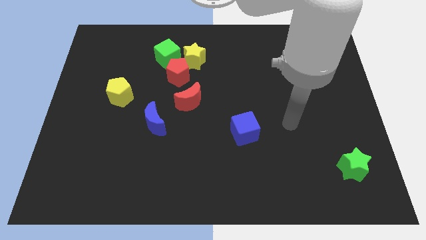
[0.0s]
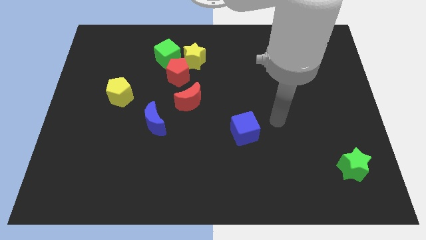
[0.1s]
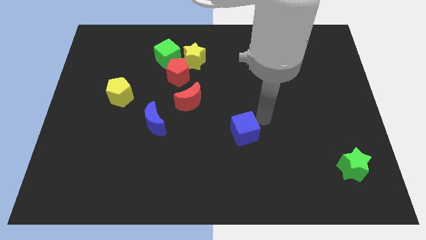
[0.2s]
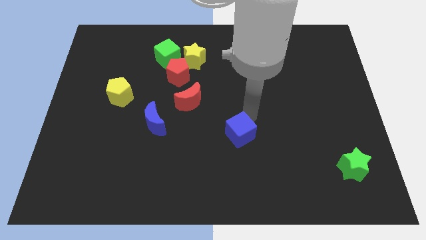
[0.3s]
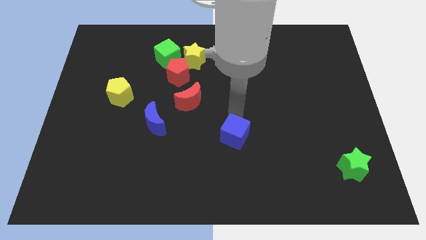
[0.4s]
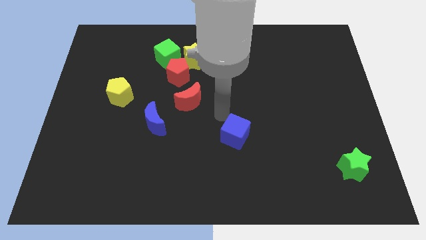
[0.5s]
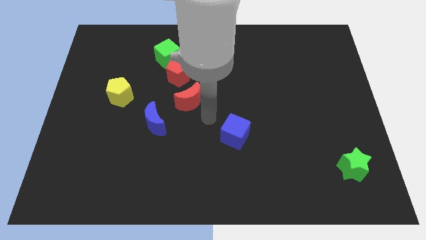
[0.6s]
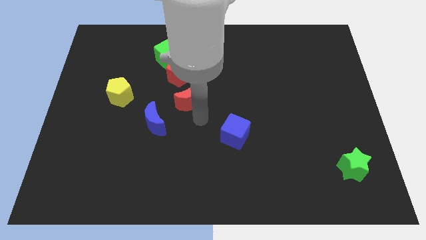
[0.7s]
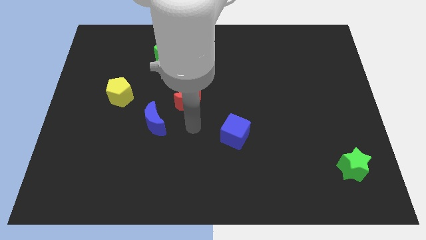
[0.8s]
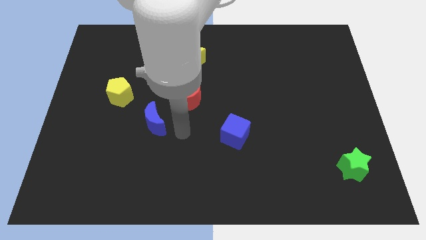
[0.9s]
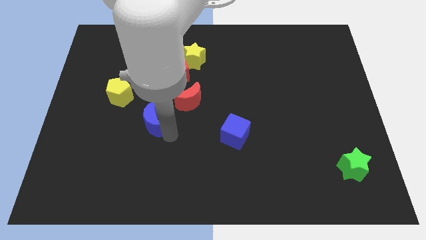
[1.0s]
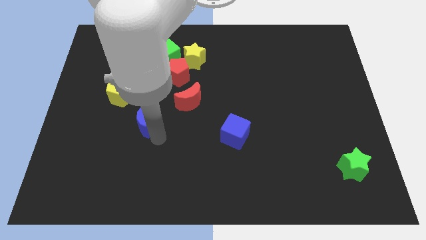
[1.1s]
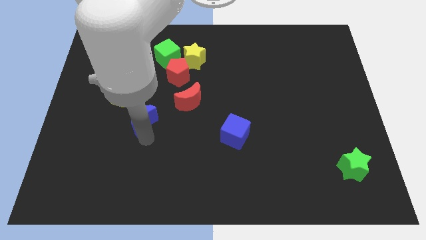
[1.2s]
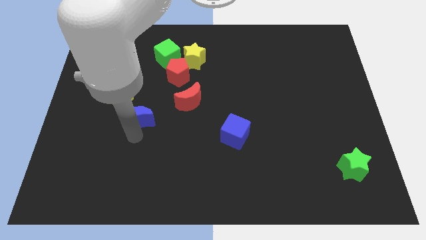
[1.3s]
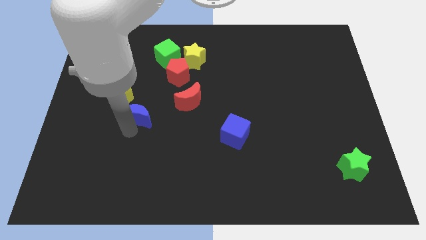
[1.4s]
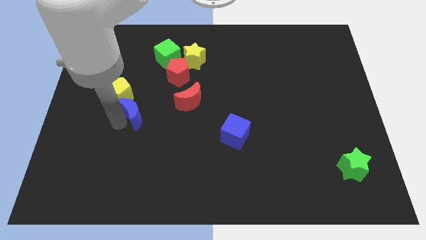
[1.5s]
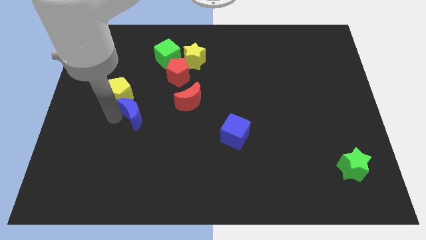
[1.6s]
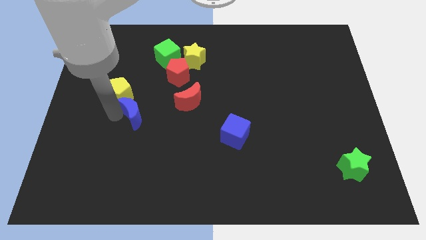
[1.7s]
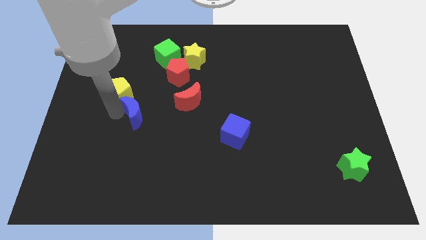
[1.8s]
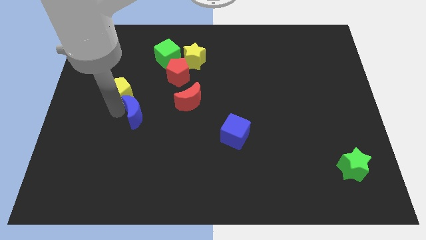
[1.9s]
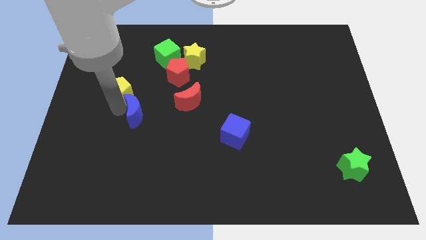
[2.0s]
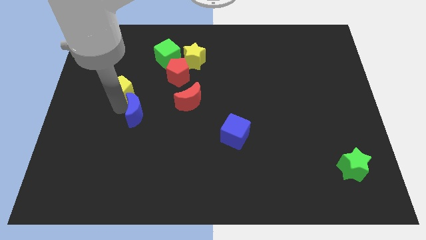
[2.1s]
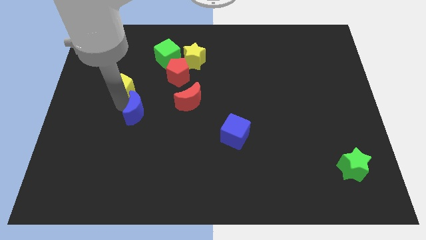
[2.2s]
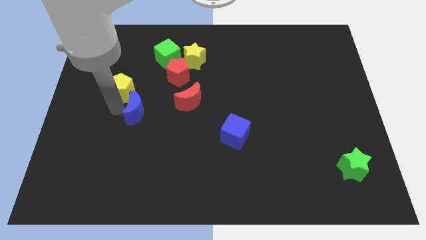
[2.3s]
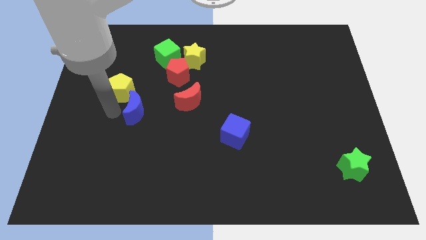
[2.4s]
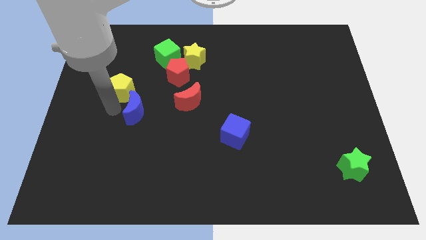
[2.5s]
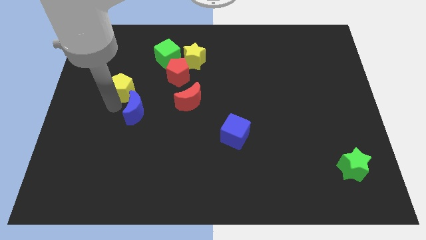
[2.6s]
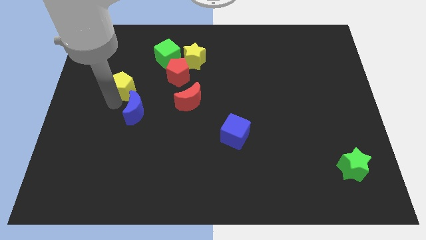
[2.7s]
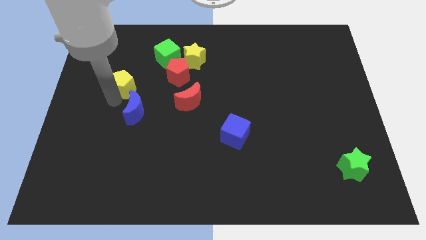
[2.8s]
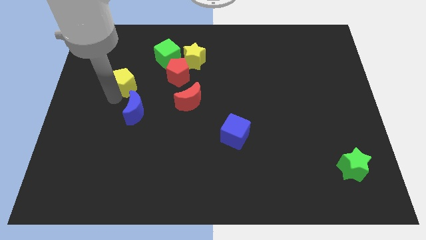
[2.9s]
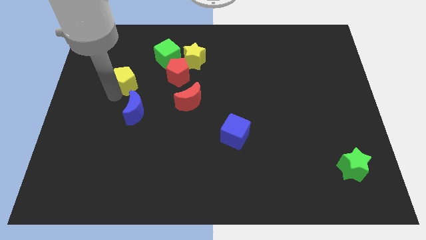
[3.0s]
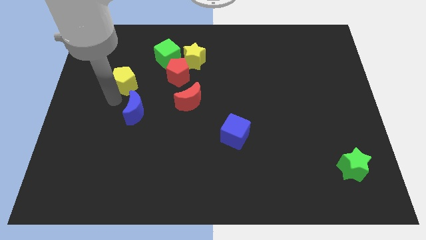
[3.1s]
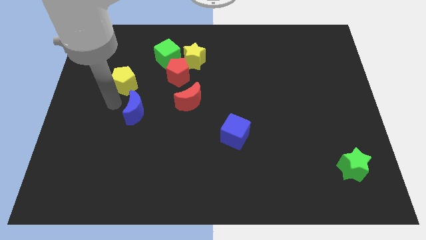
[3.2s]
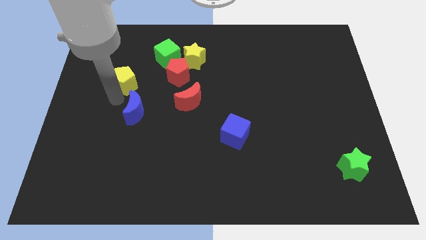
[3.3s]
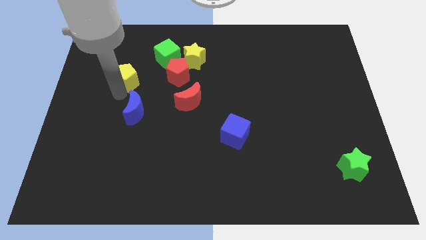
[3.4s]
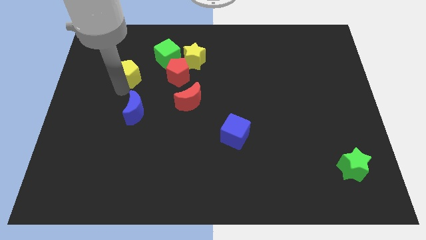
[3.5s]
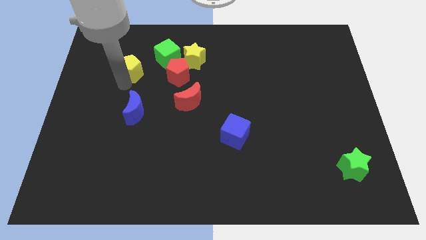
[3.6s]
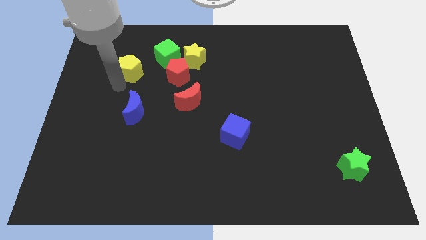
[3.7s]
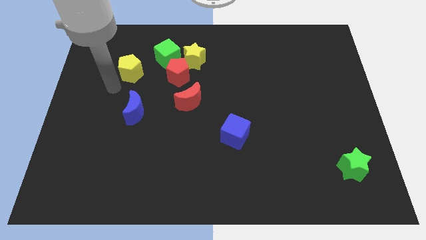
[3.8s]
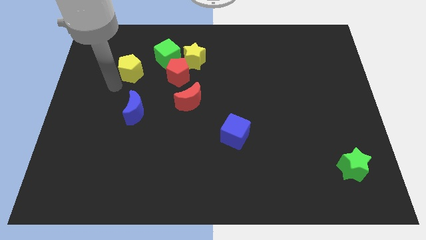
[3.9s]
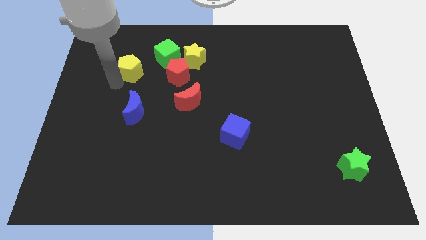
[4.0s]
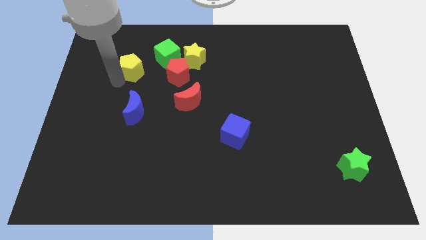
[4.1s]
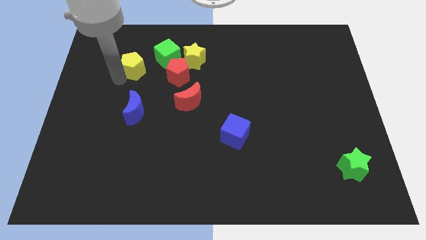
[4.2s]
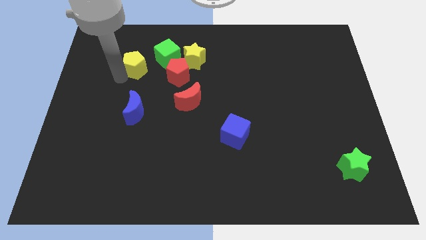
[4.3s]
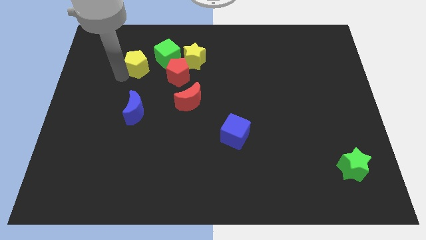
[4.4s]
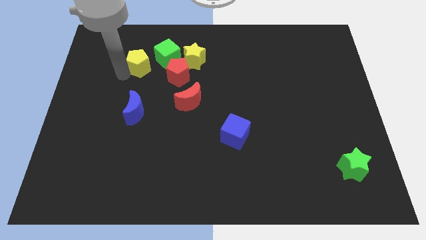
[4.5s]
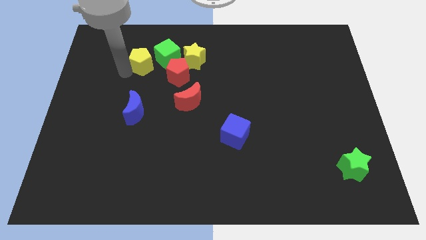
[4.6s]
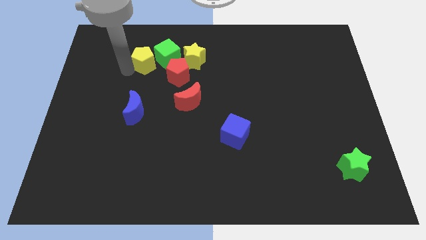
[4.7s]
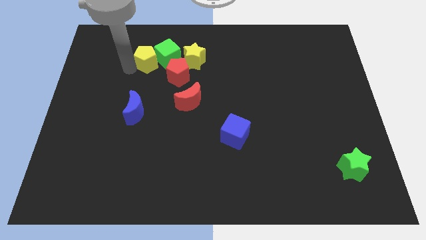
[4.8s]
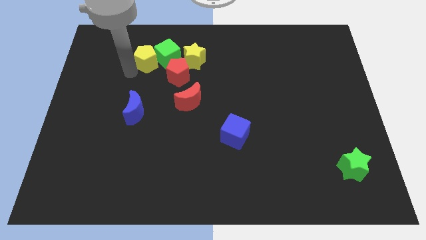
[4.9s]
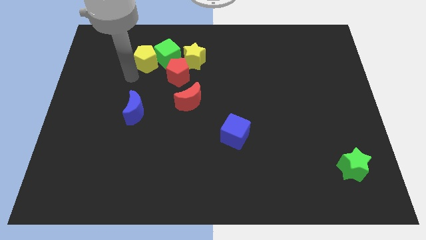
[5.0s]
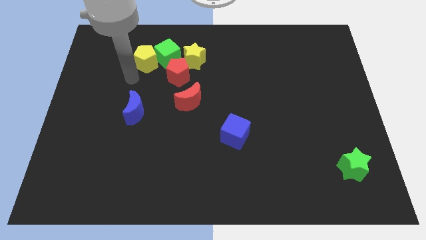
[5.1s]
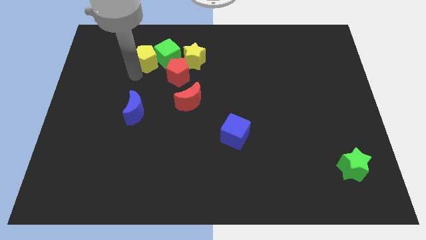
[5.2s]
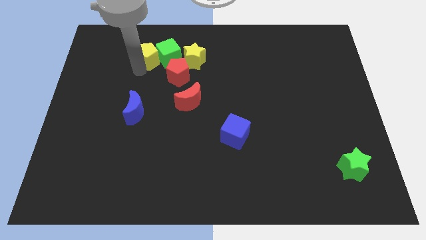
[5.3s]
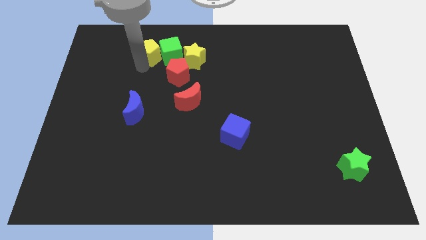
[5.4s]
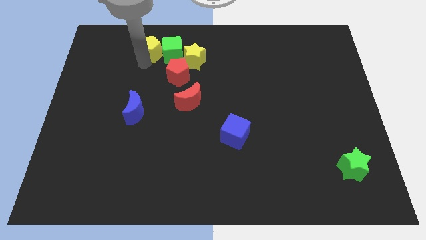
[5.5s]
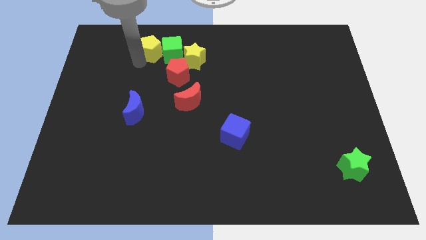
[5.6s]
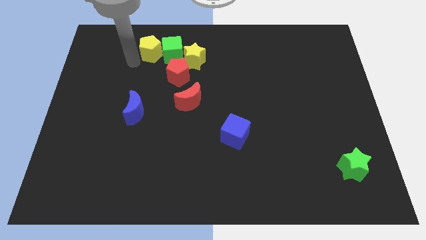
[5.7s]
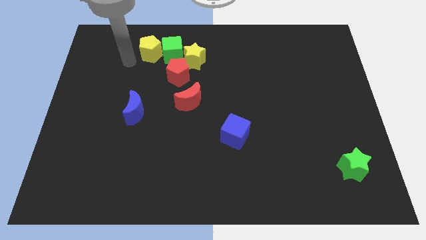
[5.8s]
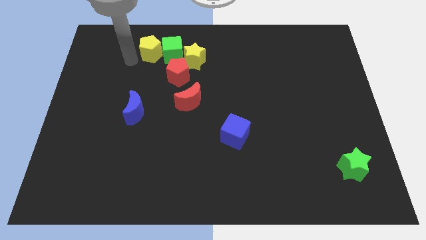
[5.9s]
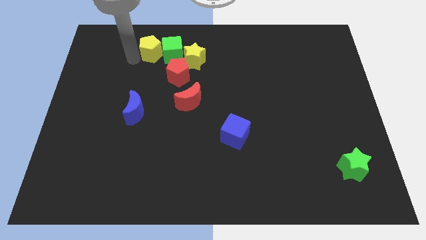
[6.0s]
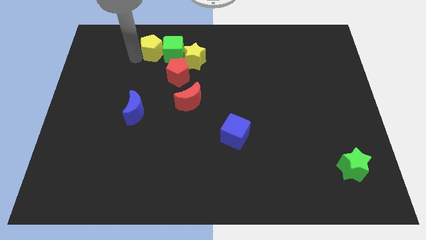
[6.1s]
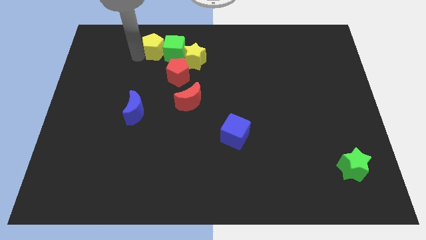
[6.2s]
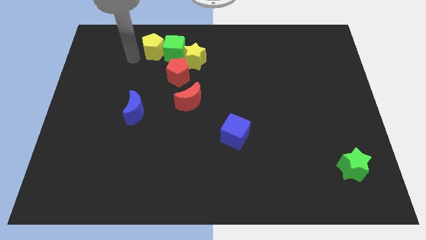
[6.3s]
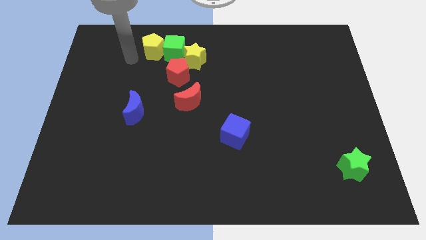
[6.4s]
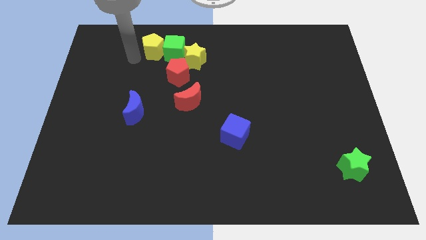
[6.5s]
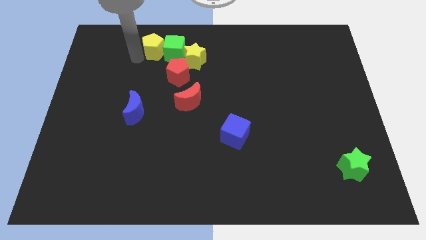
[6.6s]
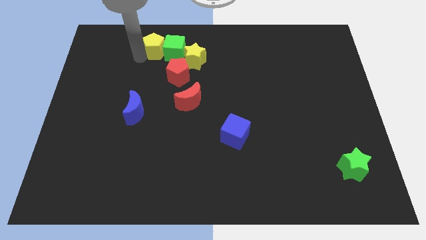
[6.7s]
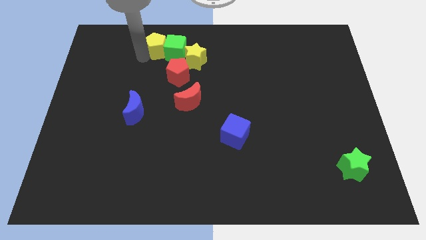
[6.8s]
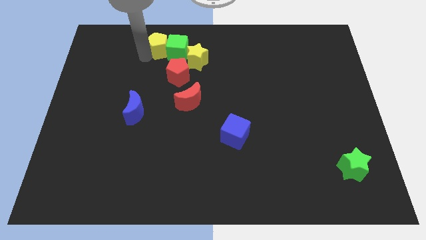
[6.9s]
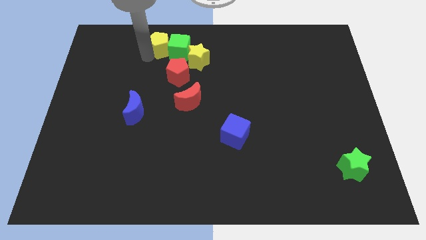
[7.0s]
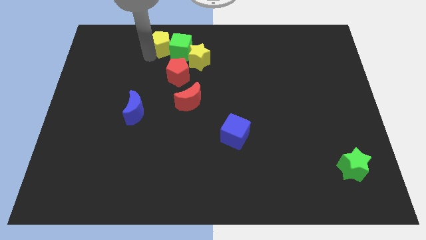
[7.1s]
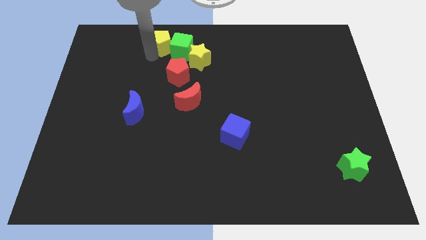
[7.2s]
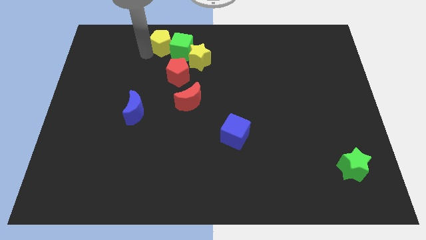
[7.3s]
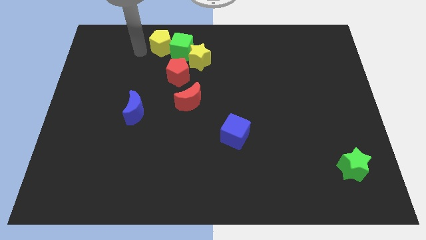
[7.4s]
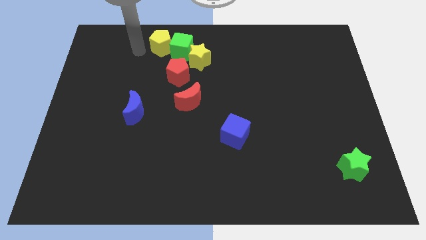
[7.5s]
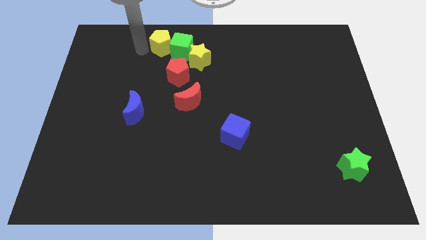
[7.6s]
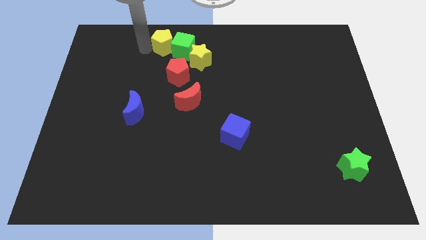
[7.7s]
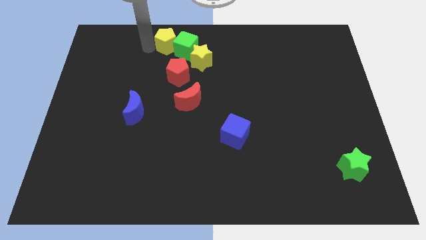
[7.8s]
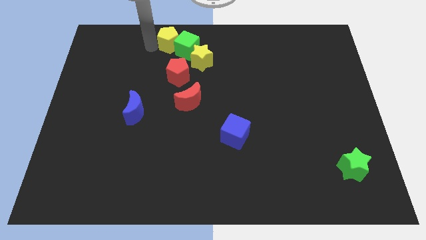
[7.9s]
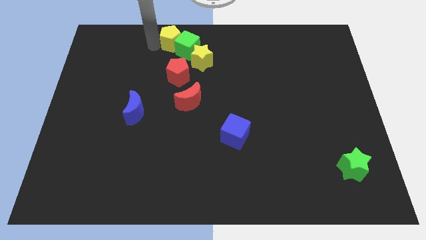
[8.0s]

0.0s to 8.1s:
slide the yellow pentagon to the top side
